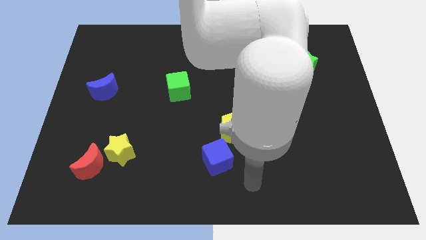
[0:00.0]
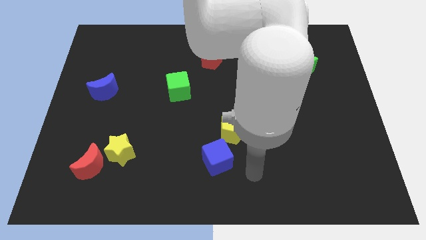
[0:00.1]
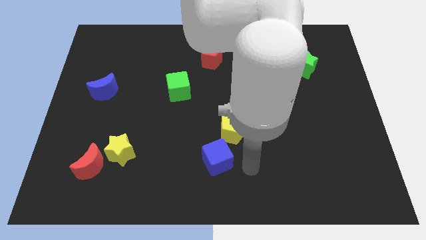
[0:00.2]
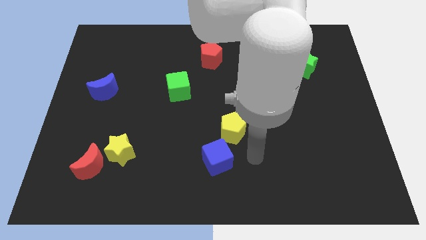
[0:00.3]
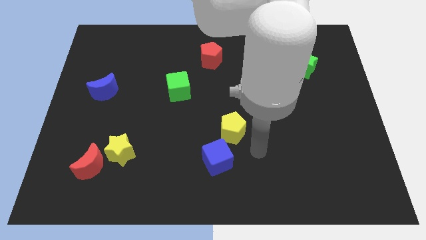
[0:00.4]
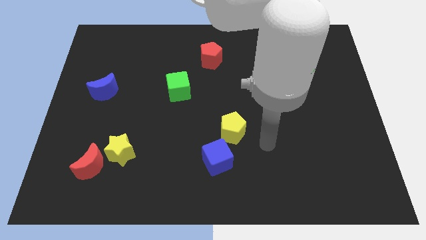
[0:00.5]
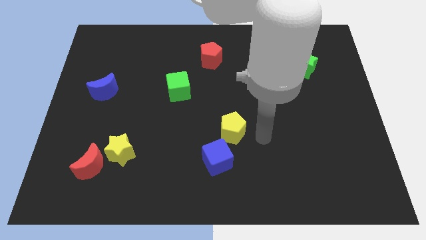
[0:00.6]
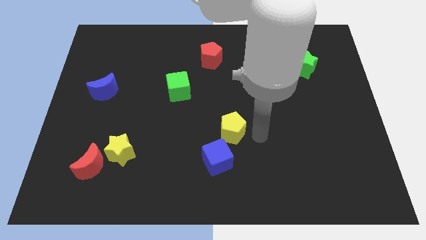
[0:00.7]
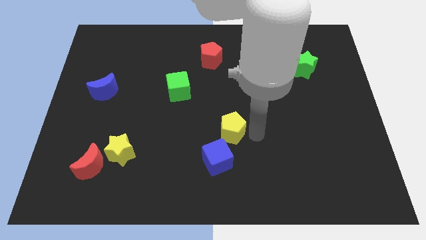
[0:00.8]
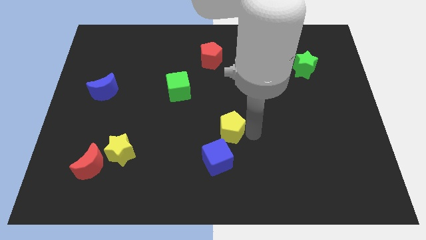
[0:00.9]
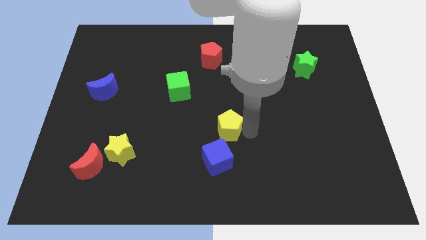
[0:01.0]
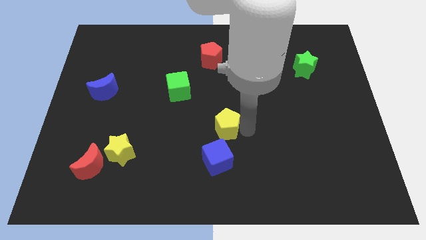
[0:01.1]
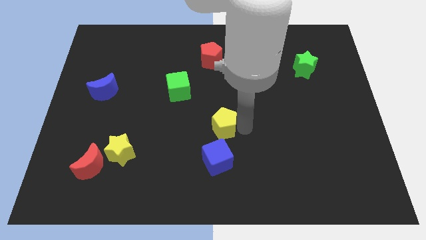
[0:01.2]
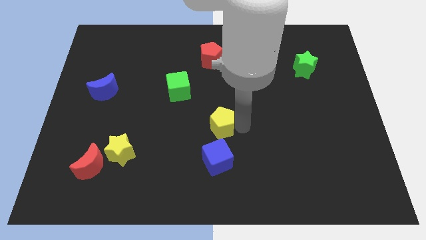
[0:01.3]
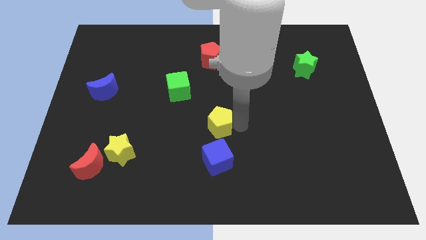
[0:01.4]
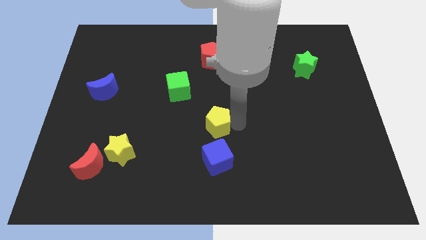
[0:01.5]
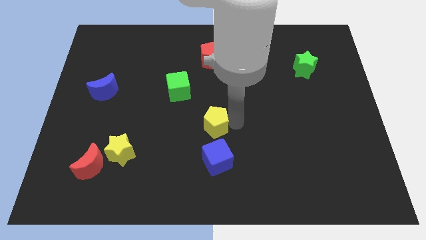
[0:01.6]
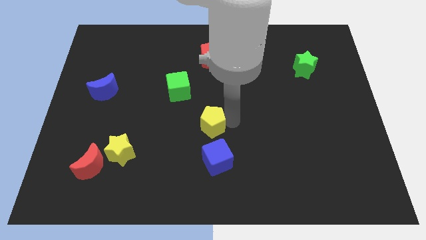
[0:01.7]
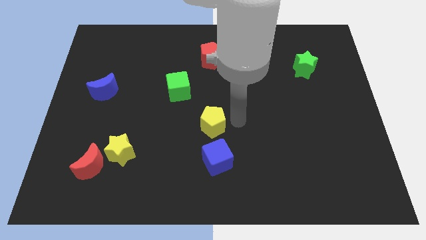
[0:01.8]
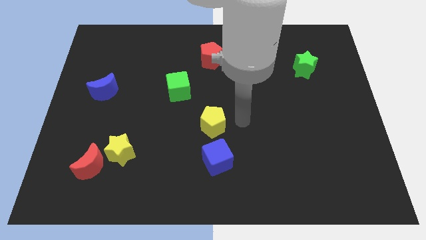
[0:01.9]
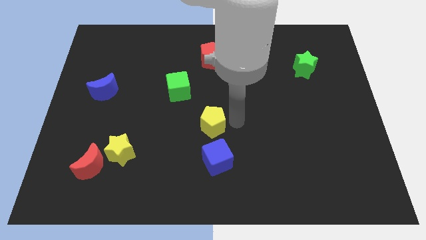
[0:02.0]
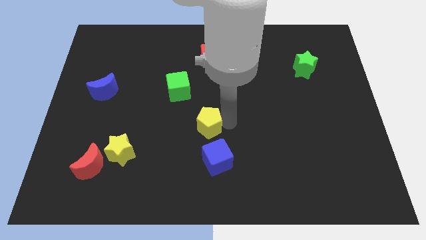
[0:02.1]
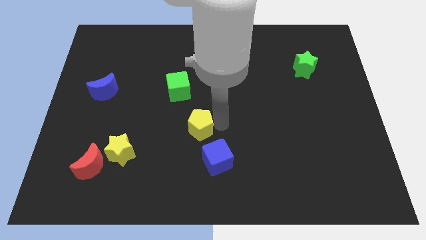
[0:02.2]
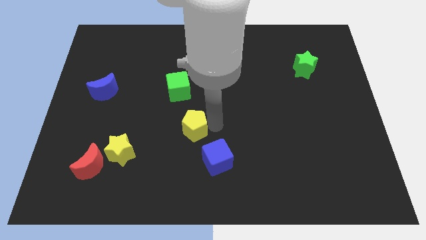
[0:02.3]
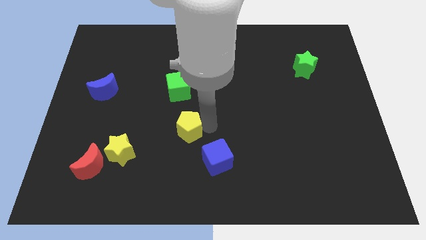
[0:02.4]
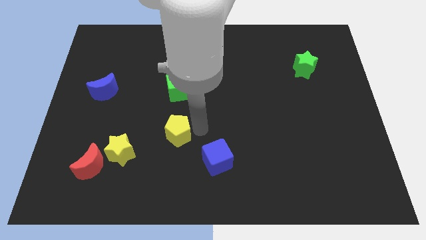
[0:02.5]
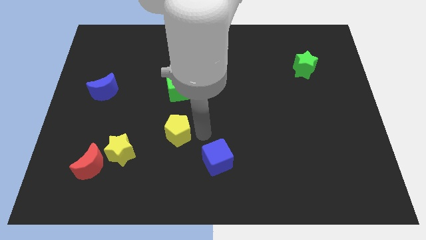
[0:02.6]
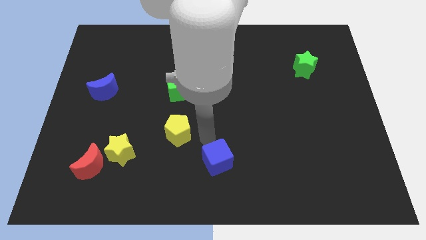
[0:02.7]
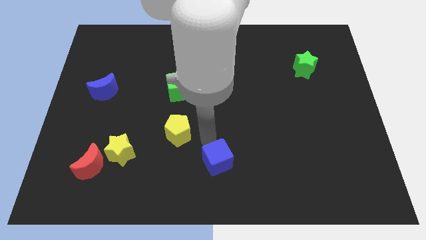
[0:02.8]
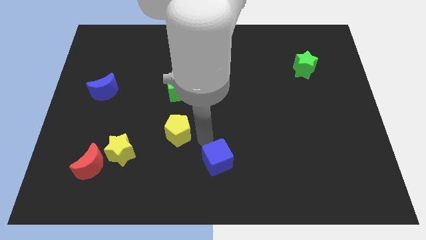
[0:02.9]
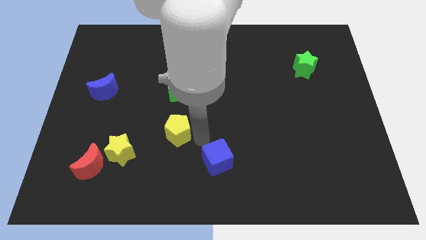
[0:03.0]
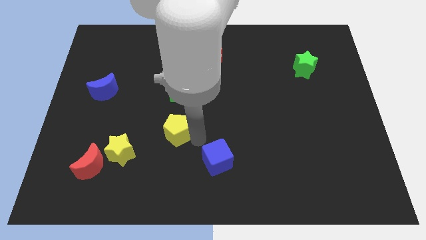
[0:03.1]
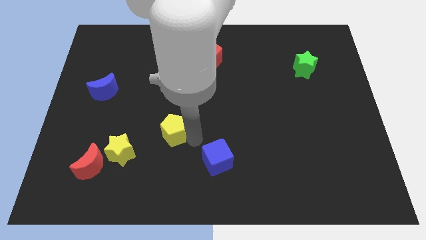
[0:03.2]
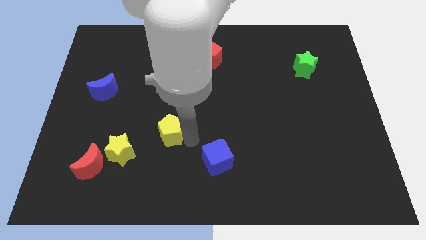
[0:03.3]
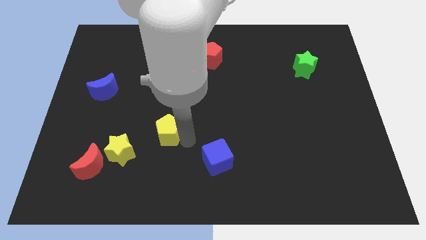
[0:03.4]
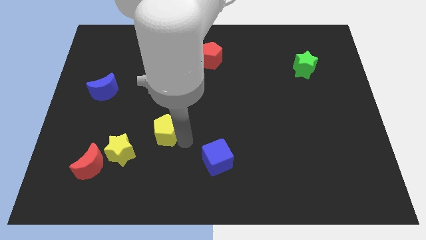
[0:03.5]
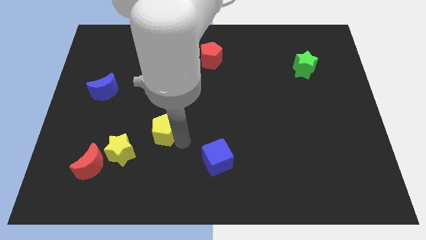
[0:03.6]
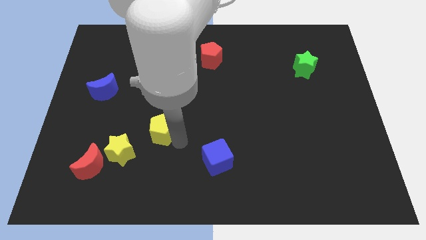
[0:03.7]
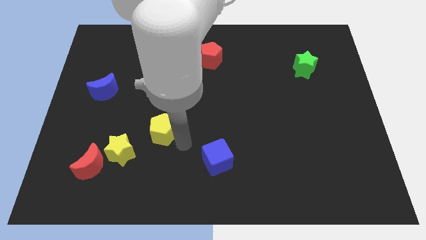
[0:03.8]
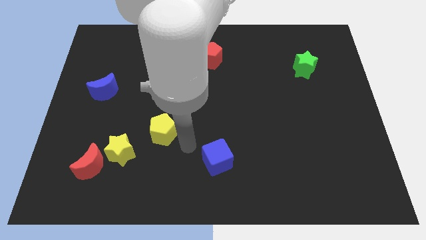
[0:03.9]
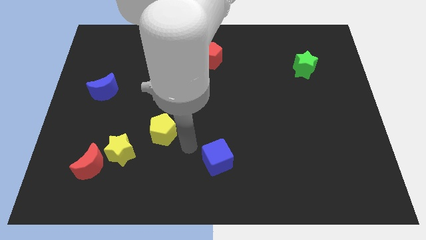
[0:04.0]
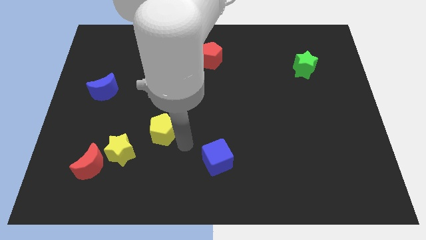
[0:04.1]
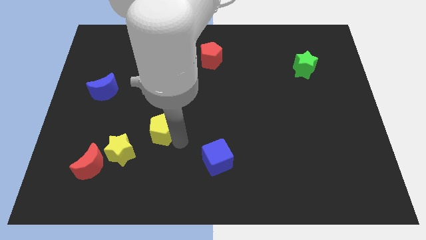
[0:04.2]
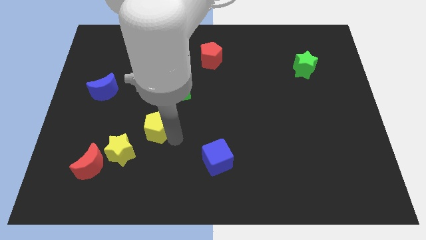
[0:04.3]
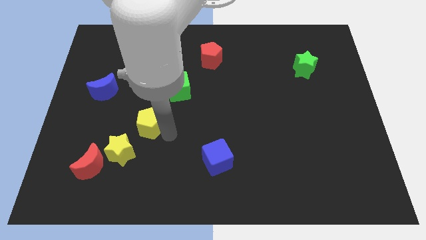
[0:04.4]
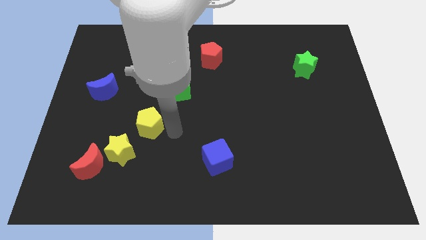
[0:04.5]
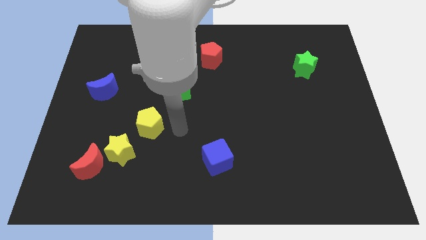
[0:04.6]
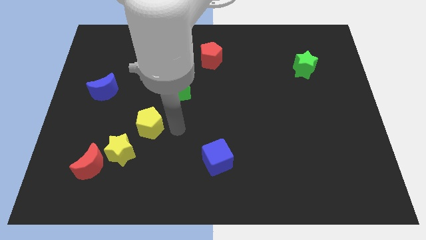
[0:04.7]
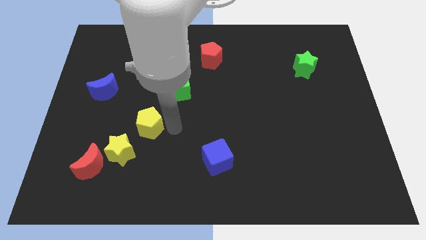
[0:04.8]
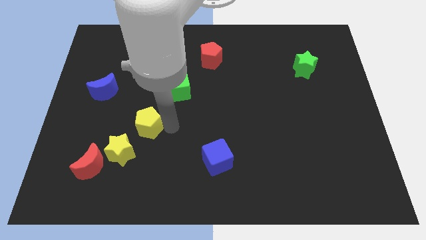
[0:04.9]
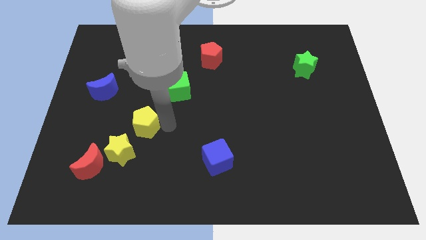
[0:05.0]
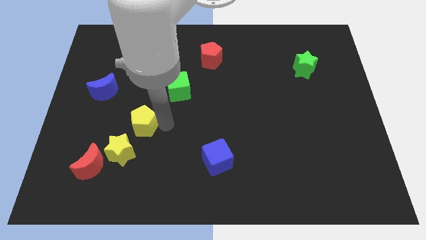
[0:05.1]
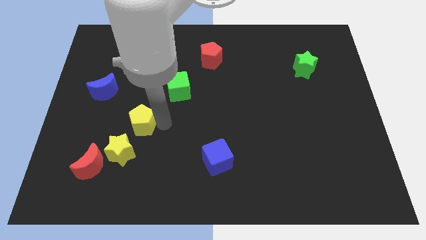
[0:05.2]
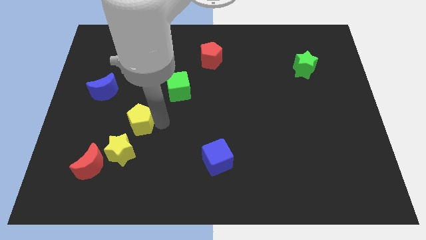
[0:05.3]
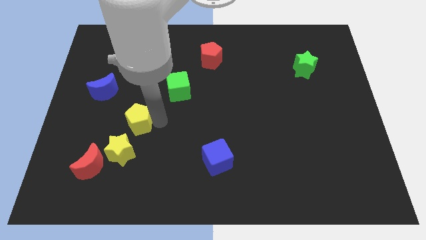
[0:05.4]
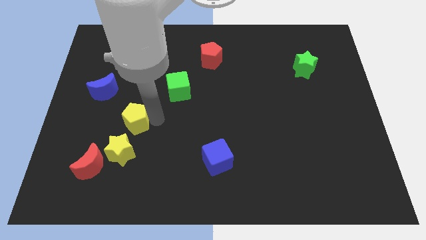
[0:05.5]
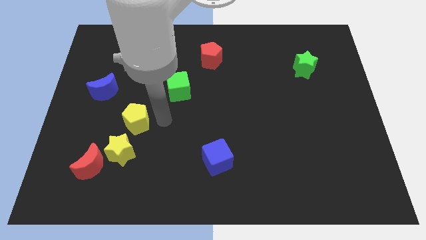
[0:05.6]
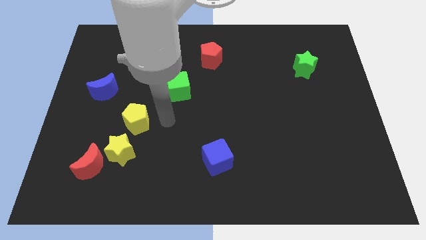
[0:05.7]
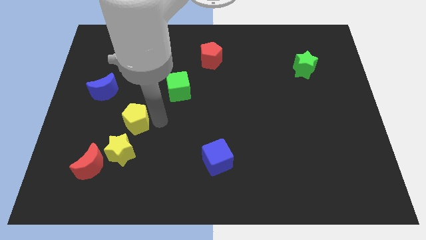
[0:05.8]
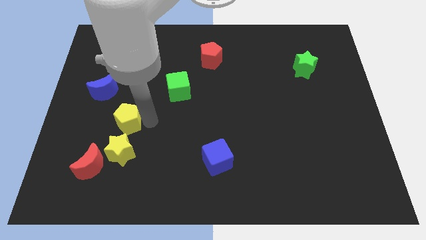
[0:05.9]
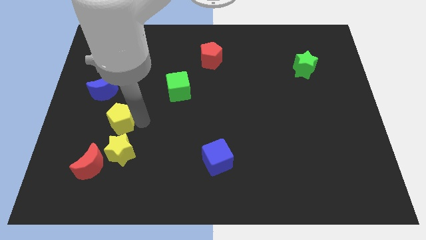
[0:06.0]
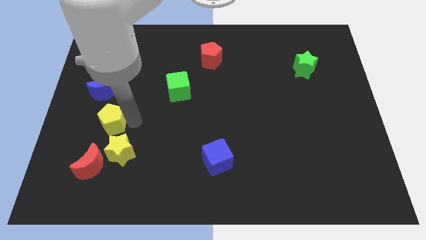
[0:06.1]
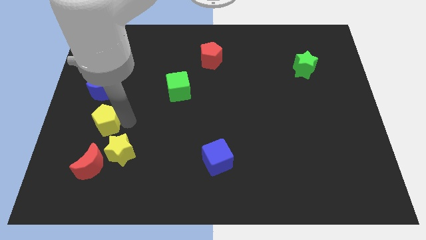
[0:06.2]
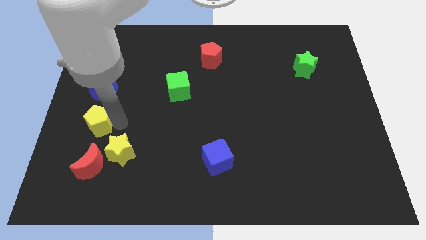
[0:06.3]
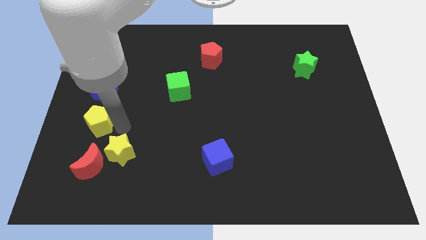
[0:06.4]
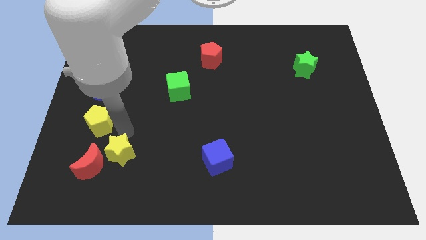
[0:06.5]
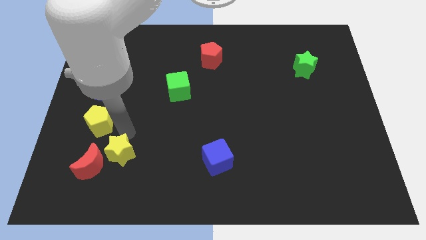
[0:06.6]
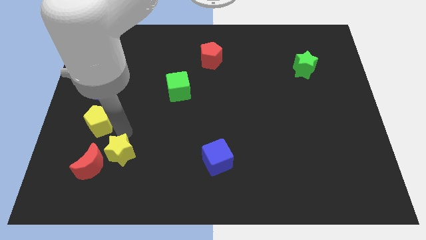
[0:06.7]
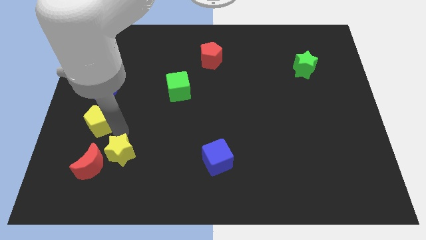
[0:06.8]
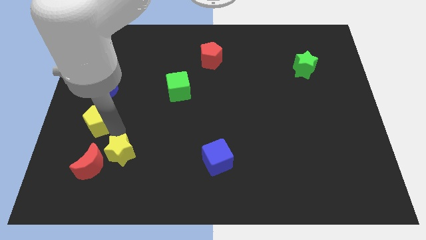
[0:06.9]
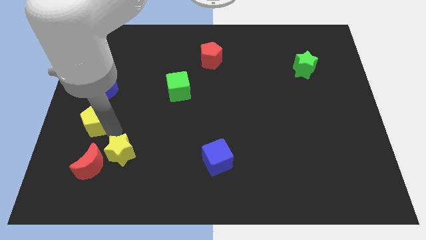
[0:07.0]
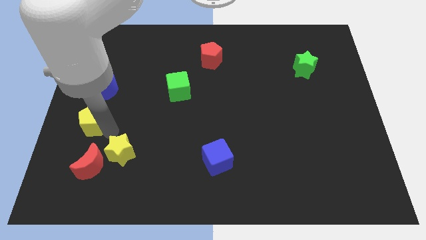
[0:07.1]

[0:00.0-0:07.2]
push the yellow pentagon to the center left
